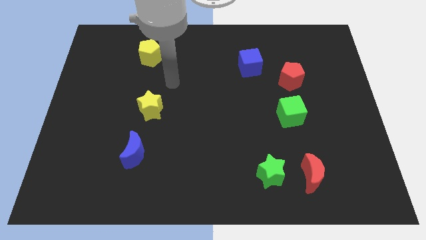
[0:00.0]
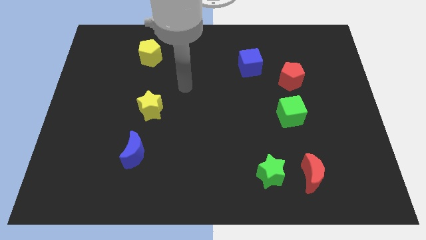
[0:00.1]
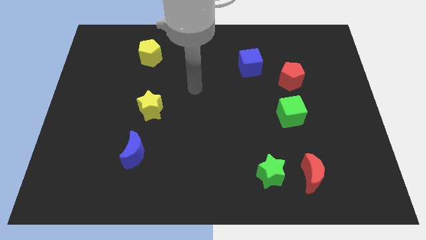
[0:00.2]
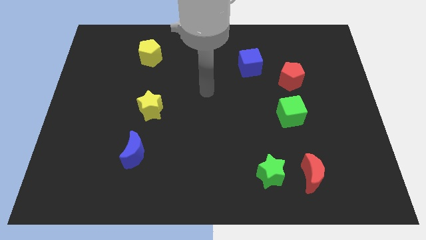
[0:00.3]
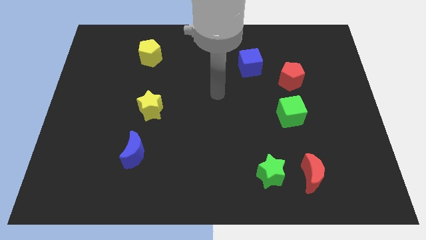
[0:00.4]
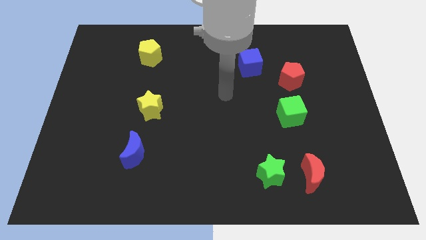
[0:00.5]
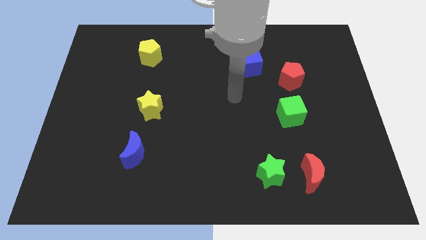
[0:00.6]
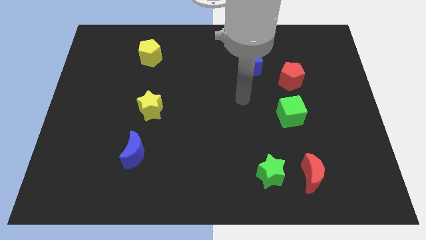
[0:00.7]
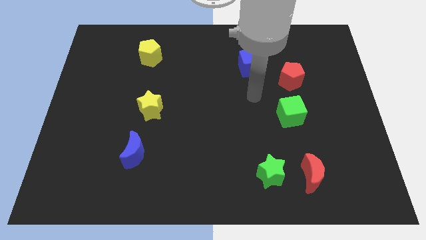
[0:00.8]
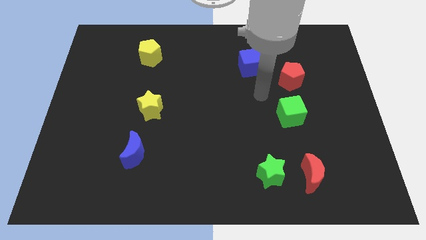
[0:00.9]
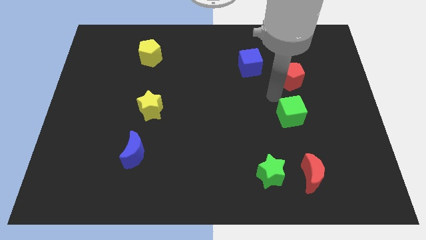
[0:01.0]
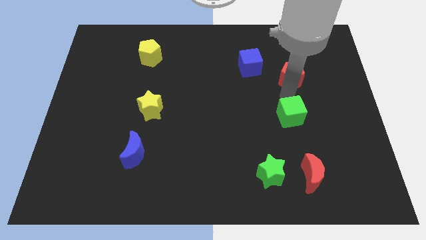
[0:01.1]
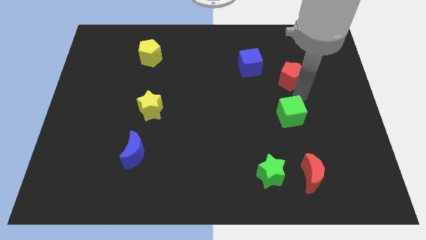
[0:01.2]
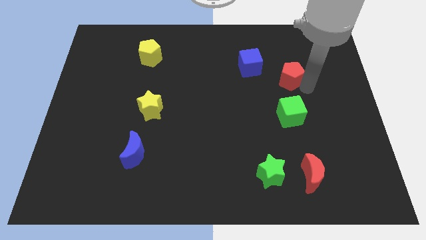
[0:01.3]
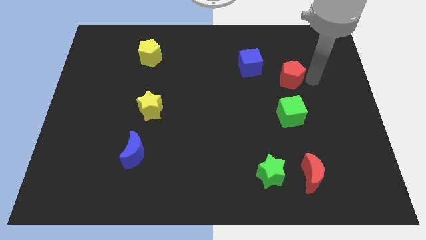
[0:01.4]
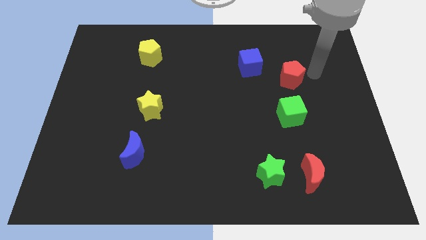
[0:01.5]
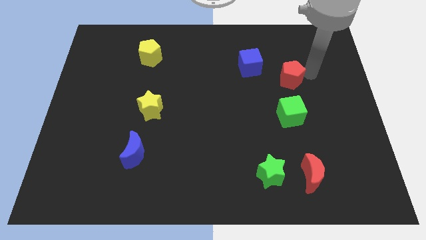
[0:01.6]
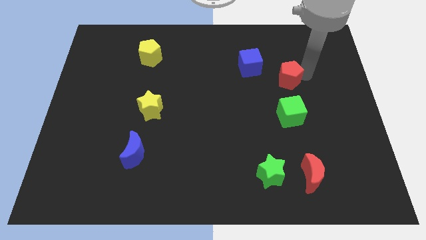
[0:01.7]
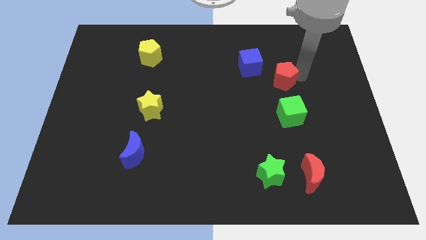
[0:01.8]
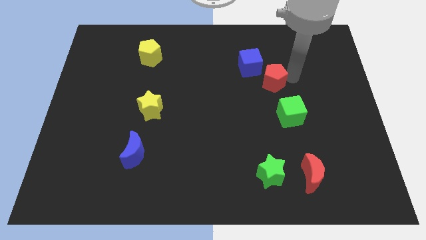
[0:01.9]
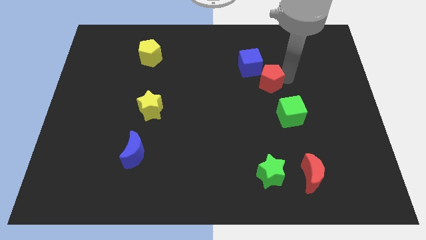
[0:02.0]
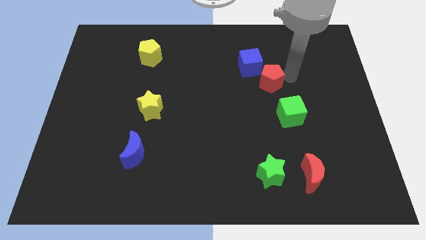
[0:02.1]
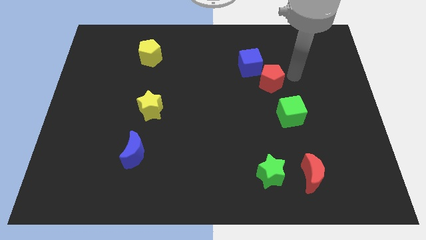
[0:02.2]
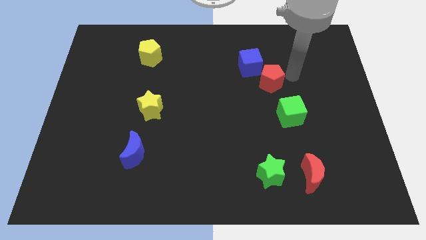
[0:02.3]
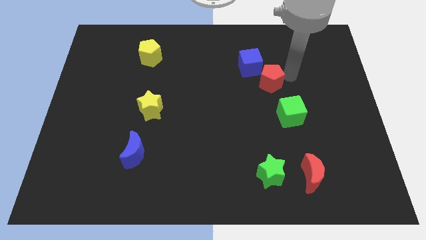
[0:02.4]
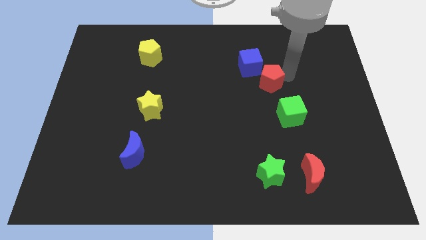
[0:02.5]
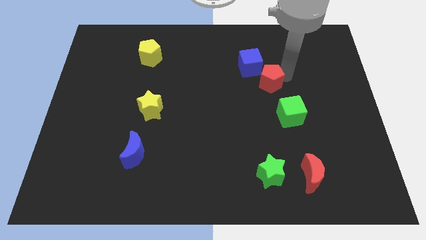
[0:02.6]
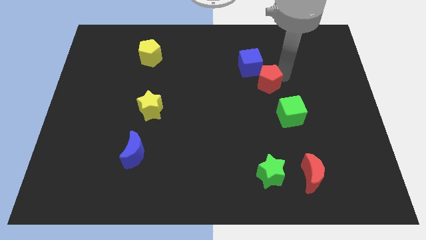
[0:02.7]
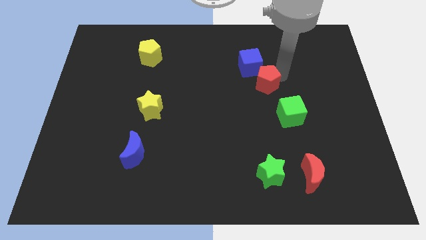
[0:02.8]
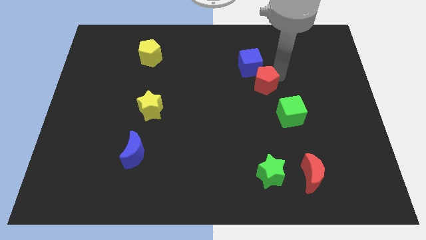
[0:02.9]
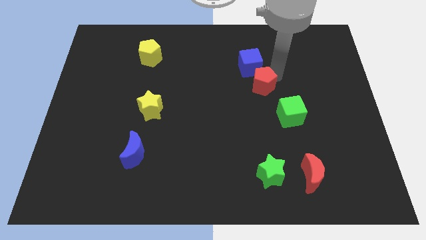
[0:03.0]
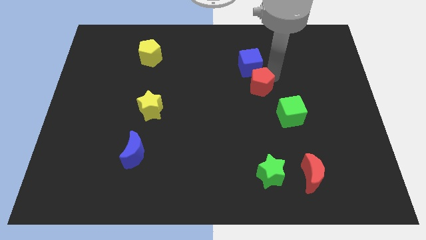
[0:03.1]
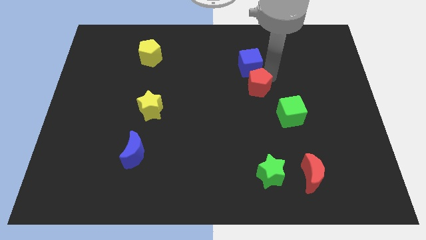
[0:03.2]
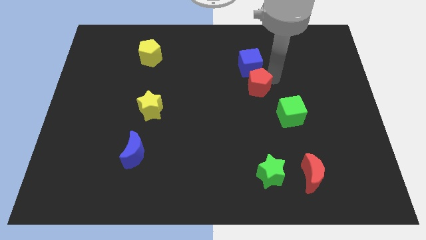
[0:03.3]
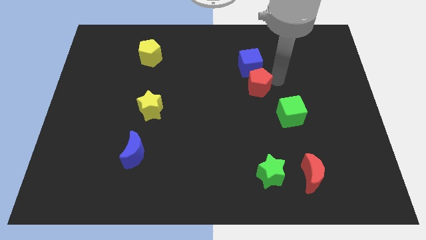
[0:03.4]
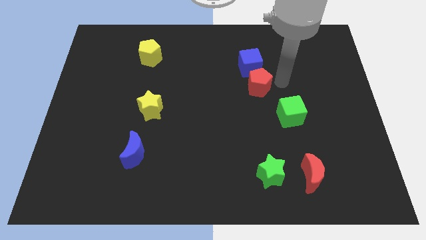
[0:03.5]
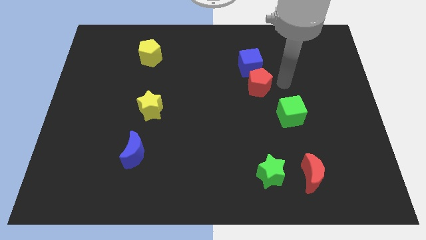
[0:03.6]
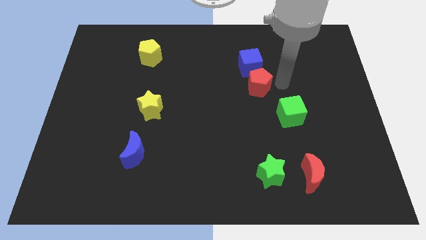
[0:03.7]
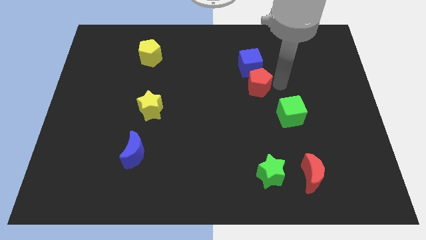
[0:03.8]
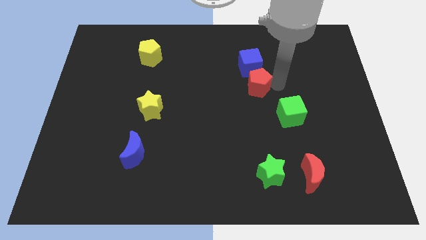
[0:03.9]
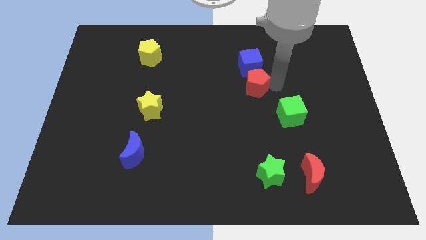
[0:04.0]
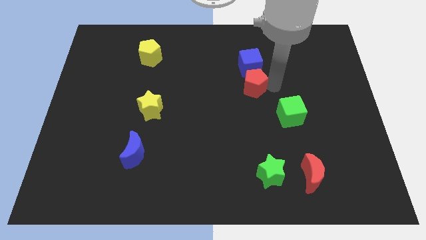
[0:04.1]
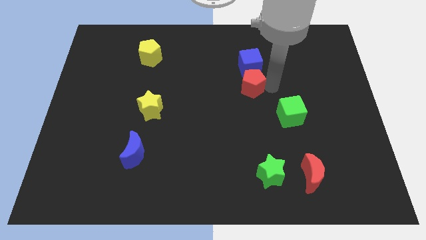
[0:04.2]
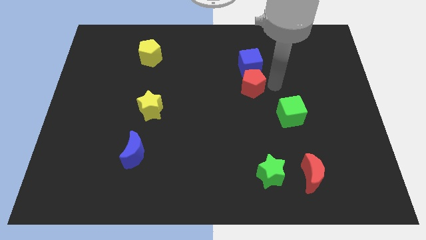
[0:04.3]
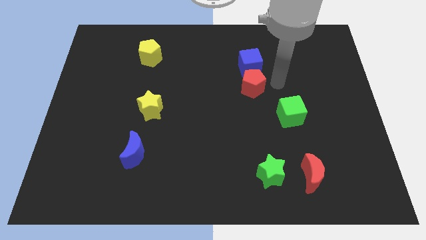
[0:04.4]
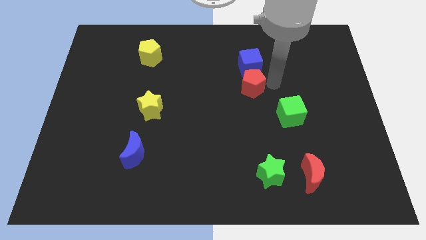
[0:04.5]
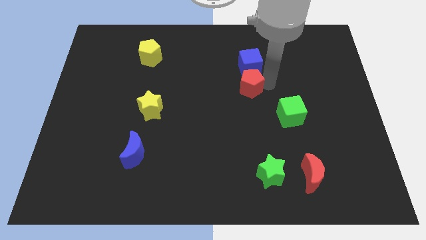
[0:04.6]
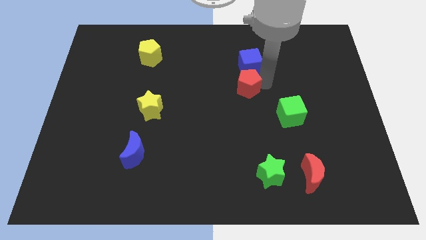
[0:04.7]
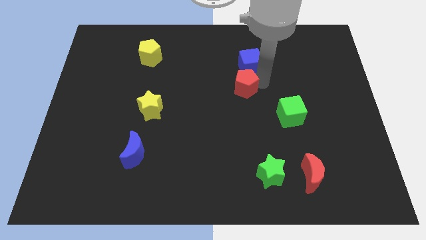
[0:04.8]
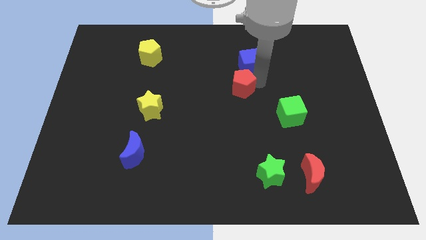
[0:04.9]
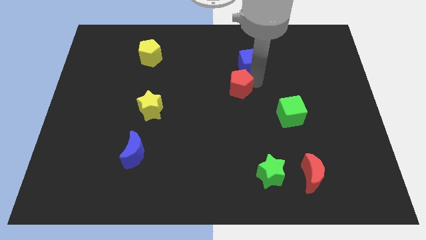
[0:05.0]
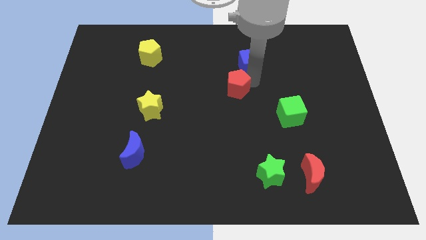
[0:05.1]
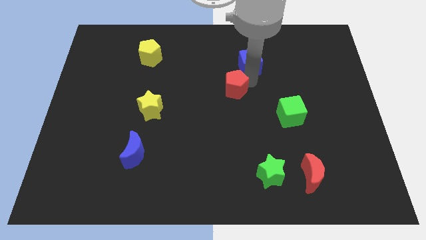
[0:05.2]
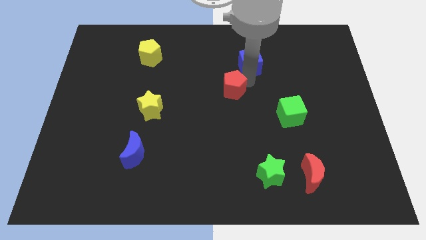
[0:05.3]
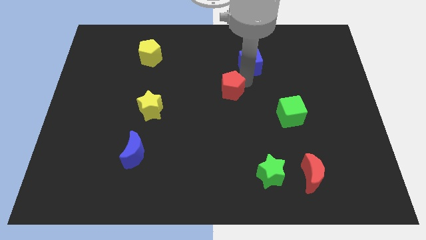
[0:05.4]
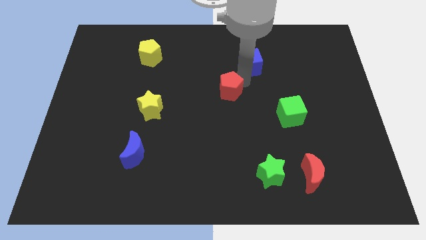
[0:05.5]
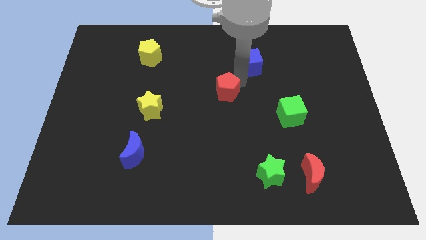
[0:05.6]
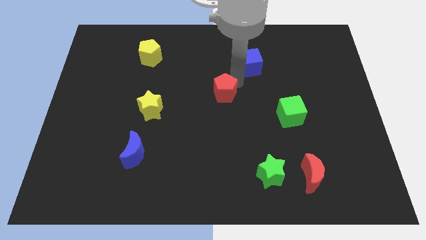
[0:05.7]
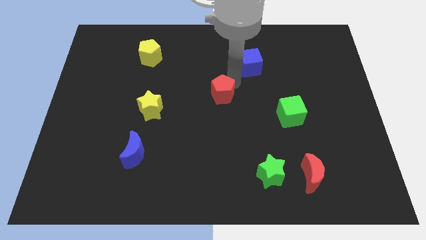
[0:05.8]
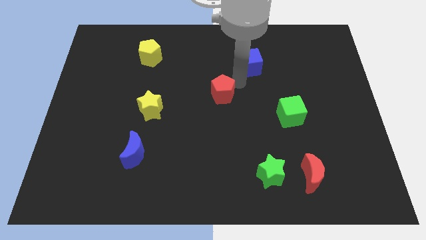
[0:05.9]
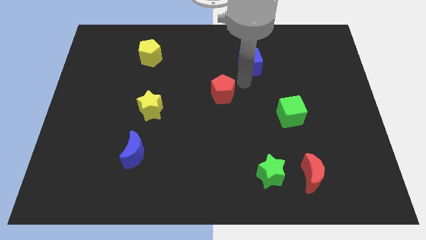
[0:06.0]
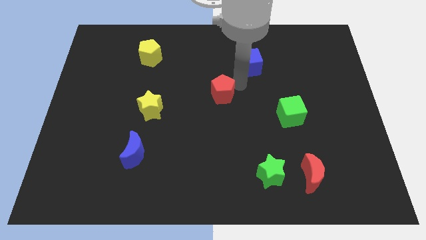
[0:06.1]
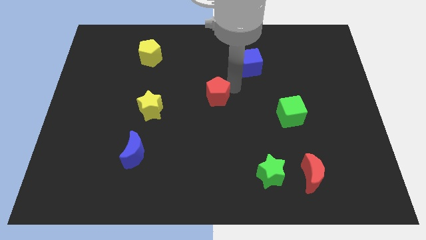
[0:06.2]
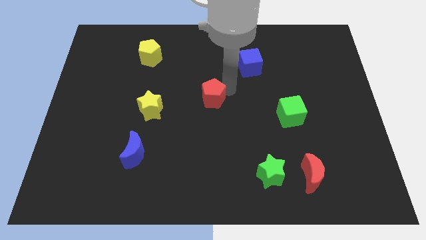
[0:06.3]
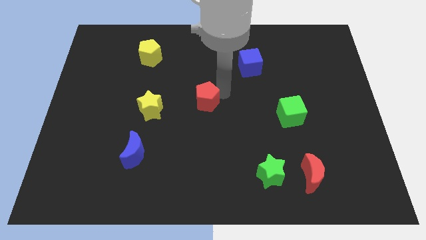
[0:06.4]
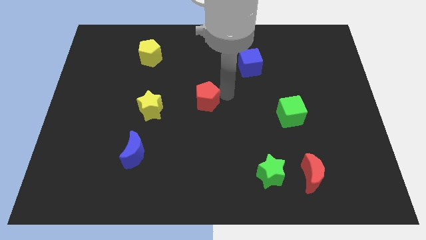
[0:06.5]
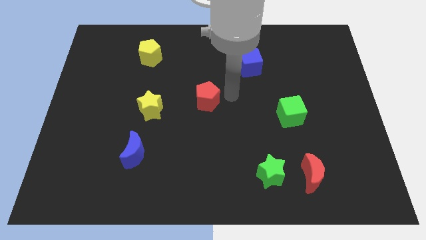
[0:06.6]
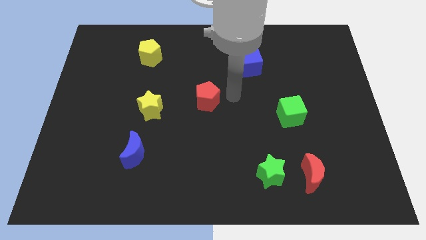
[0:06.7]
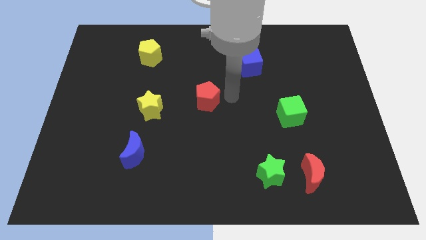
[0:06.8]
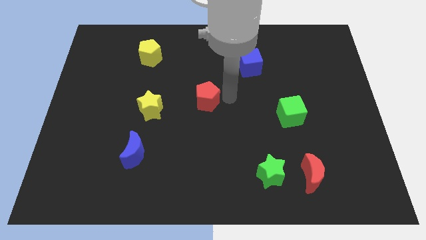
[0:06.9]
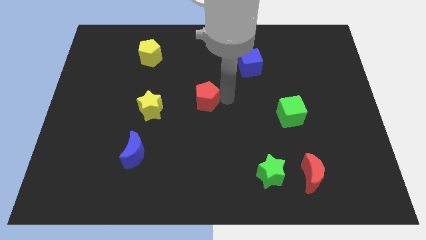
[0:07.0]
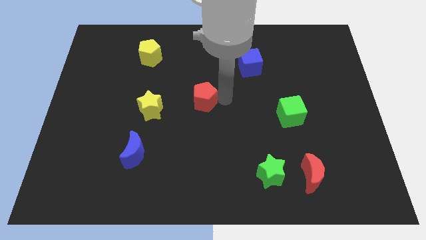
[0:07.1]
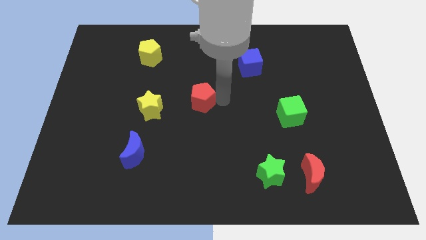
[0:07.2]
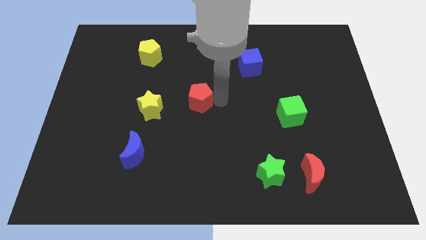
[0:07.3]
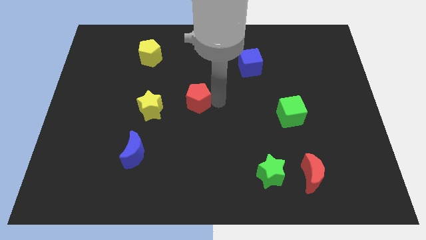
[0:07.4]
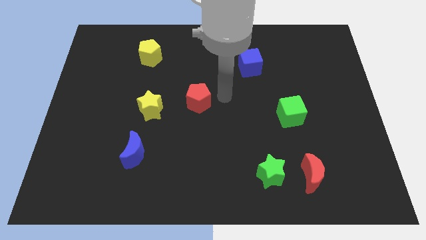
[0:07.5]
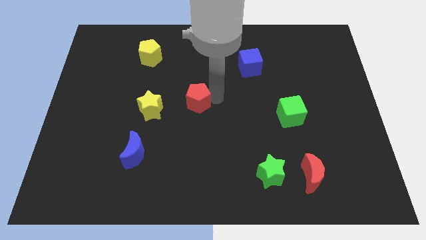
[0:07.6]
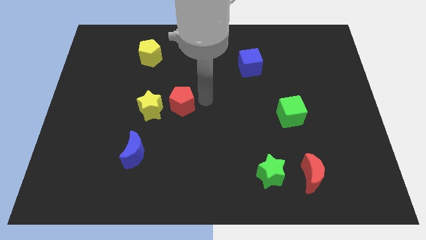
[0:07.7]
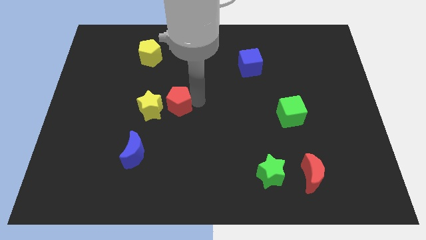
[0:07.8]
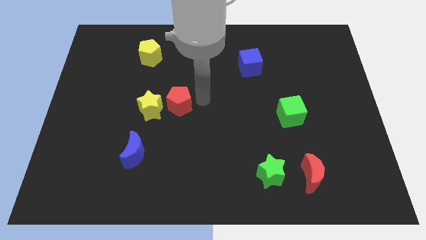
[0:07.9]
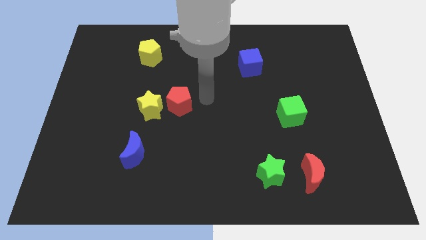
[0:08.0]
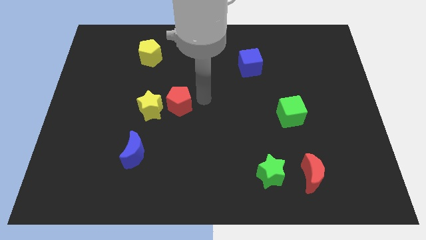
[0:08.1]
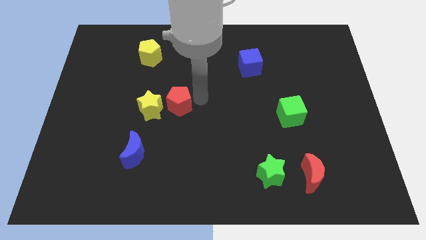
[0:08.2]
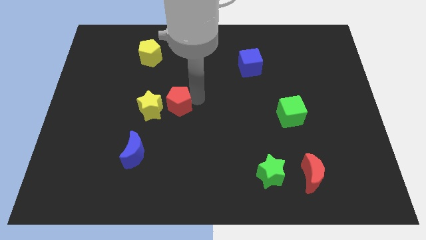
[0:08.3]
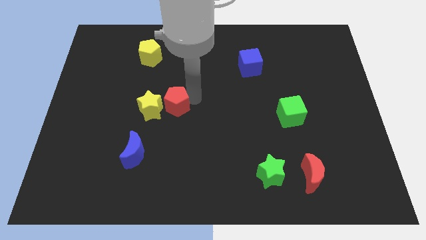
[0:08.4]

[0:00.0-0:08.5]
put the red pentagon close to the yellow star

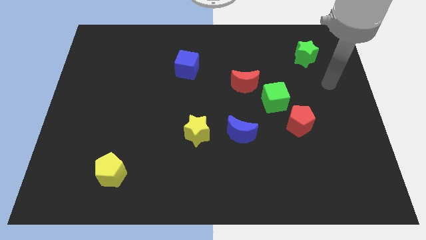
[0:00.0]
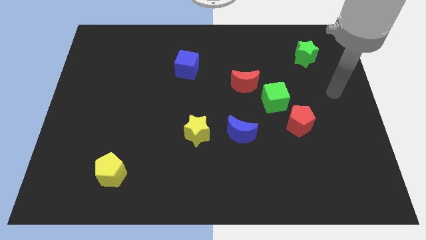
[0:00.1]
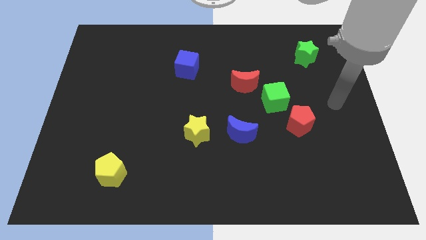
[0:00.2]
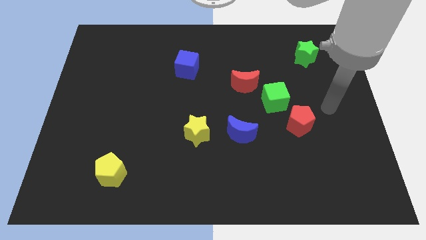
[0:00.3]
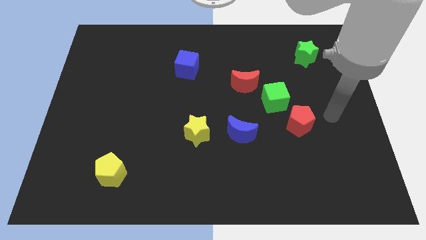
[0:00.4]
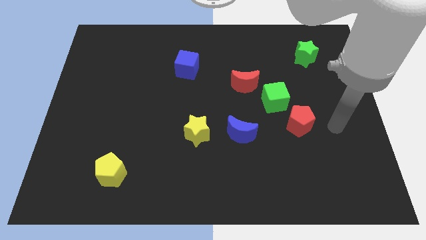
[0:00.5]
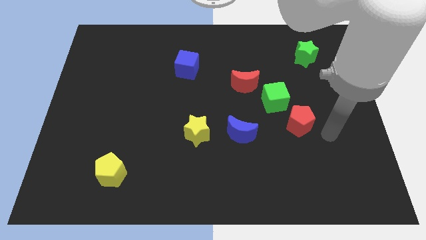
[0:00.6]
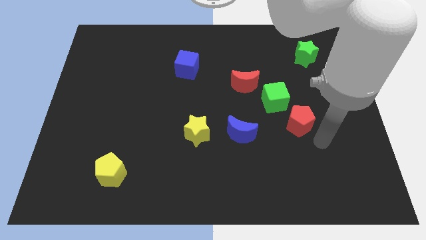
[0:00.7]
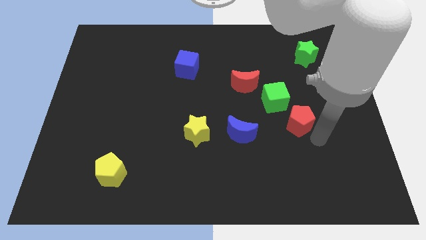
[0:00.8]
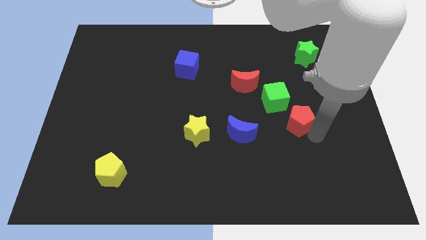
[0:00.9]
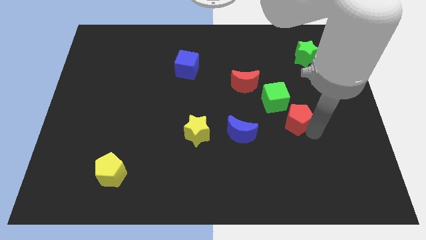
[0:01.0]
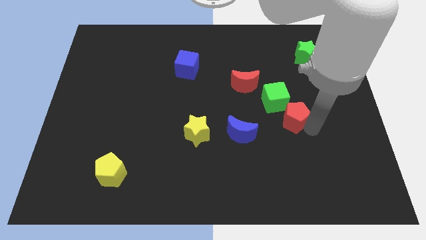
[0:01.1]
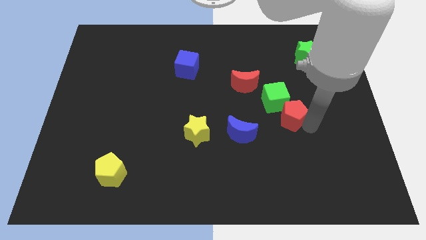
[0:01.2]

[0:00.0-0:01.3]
push the red pentagon towards the green cube
